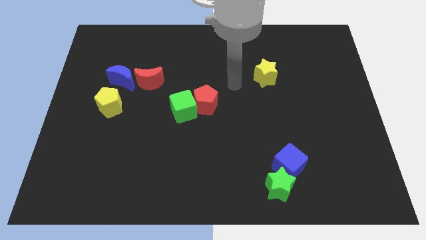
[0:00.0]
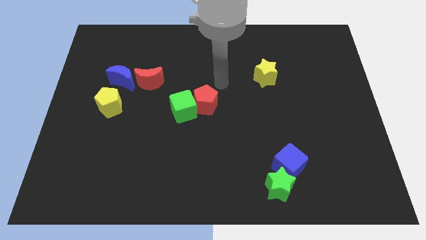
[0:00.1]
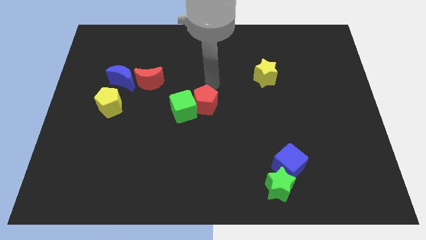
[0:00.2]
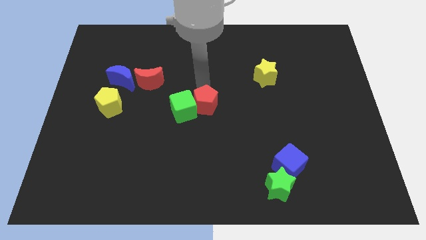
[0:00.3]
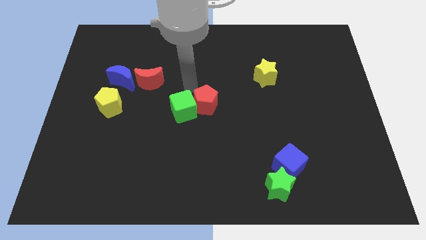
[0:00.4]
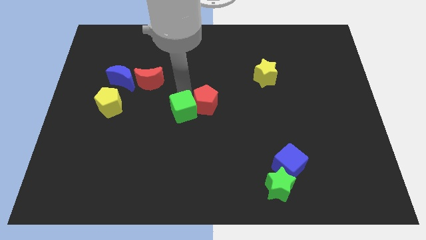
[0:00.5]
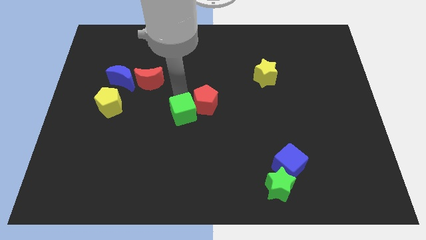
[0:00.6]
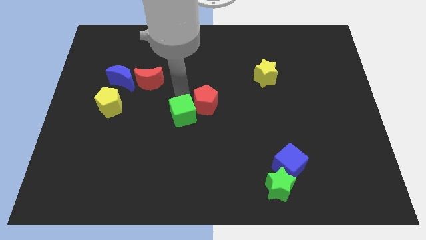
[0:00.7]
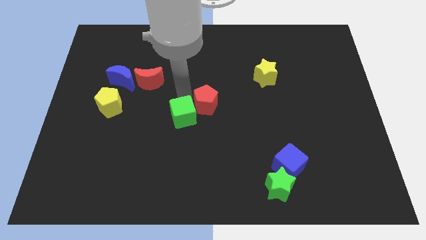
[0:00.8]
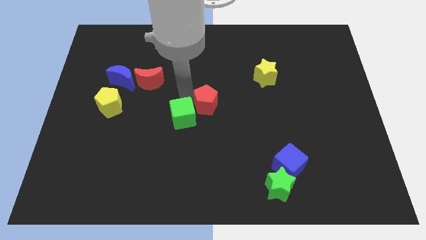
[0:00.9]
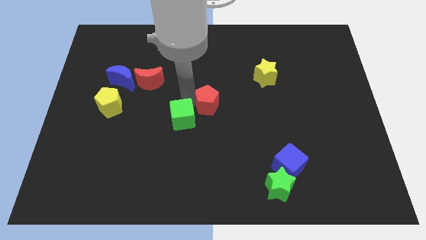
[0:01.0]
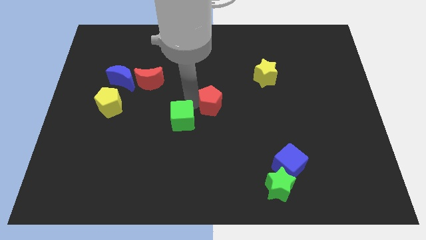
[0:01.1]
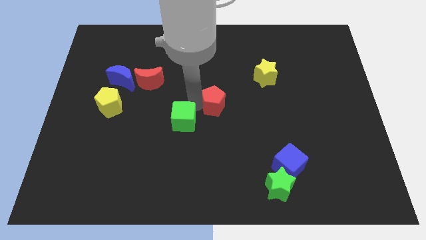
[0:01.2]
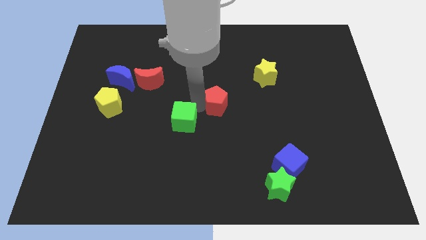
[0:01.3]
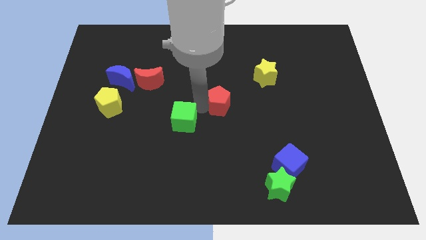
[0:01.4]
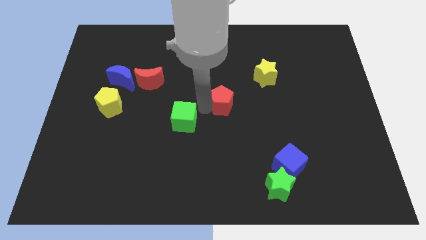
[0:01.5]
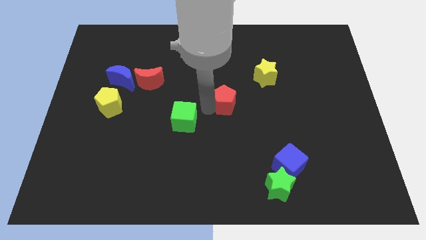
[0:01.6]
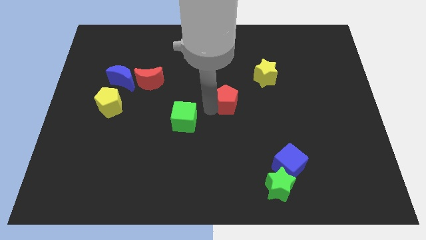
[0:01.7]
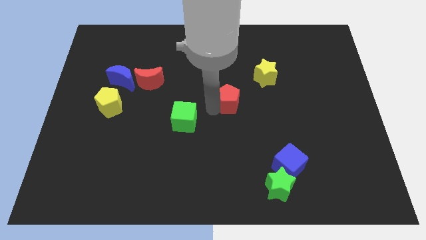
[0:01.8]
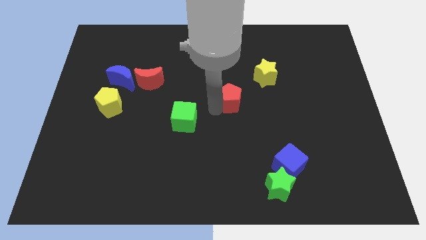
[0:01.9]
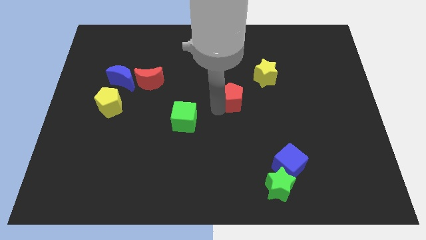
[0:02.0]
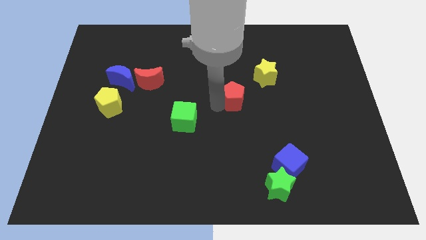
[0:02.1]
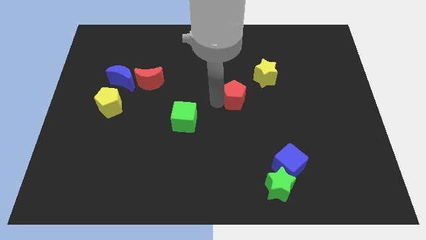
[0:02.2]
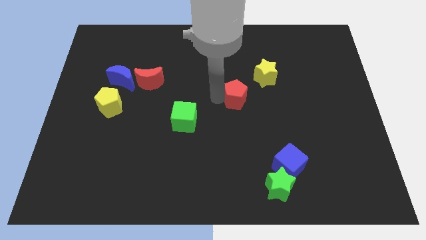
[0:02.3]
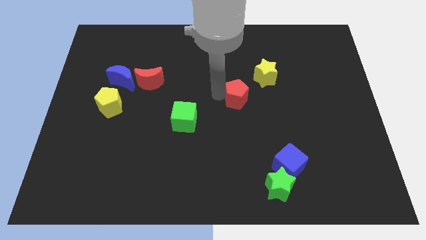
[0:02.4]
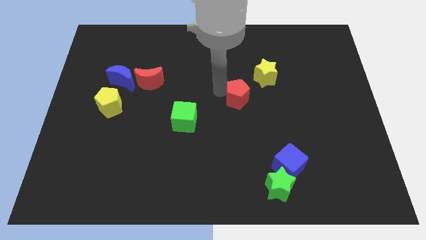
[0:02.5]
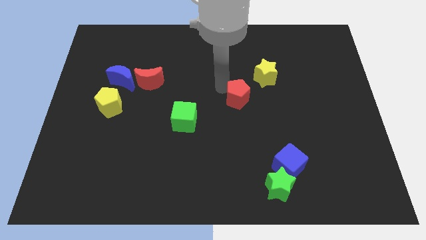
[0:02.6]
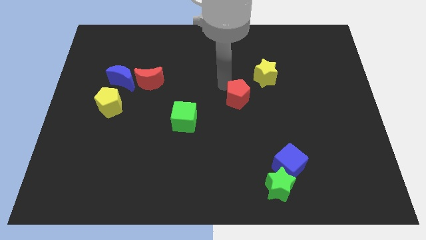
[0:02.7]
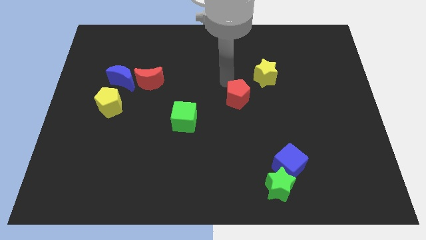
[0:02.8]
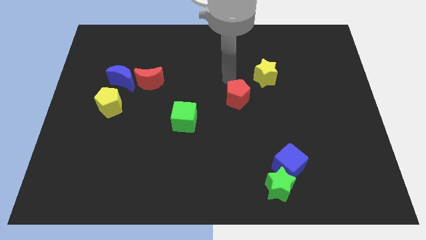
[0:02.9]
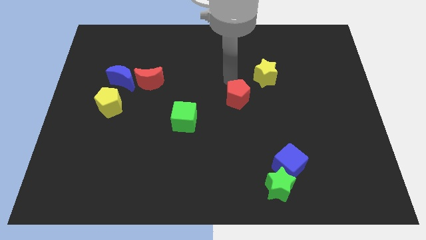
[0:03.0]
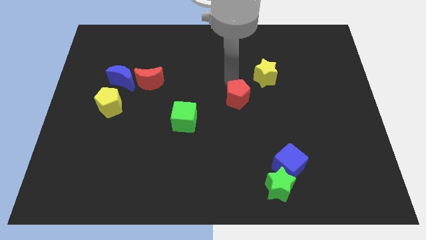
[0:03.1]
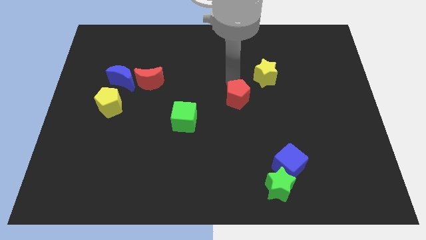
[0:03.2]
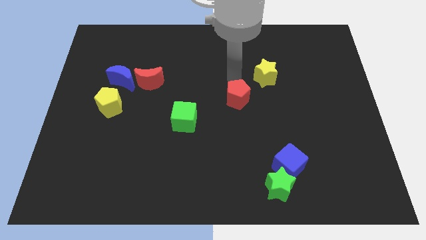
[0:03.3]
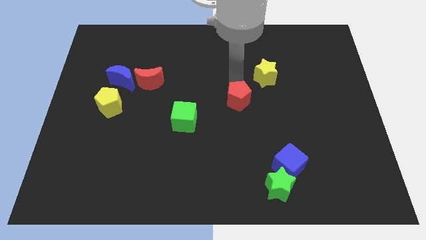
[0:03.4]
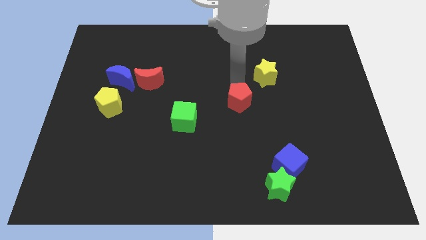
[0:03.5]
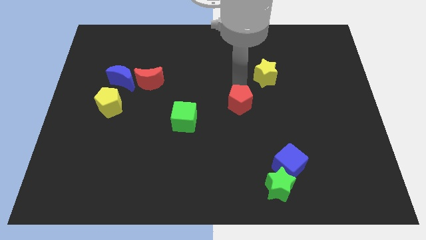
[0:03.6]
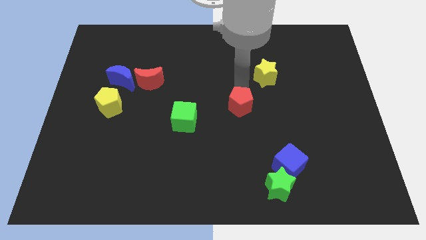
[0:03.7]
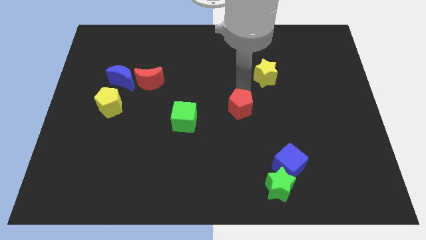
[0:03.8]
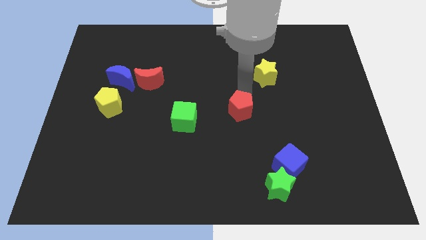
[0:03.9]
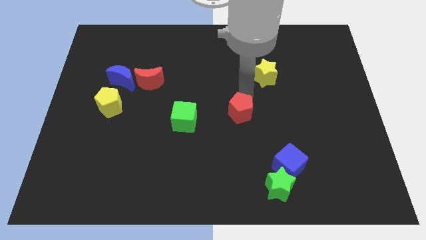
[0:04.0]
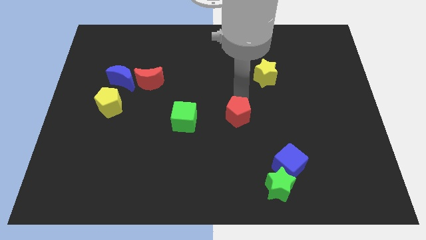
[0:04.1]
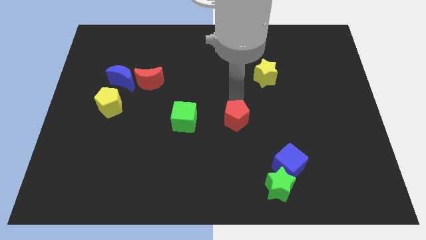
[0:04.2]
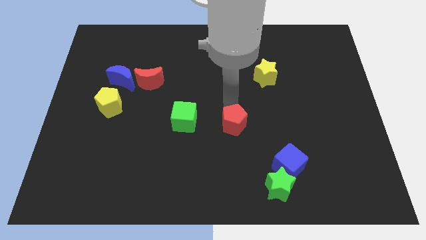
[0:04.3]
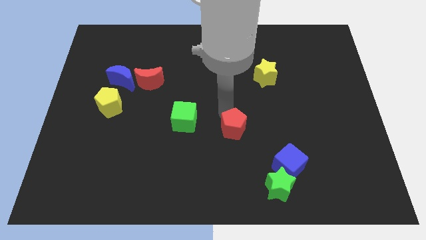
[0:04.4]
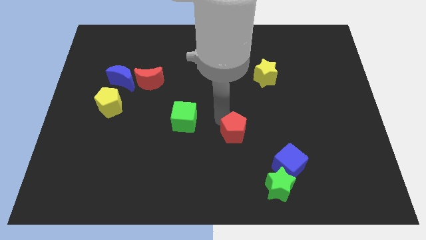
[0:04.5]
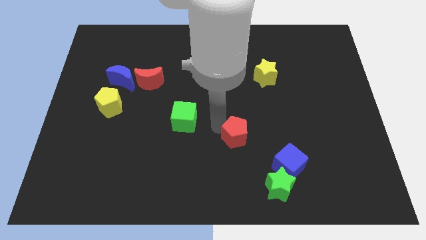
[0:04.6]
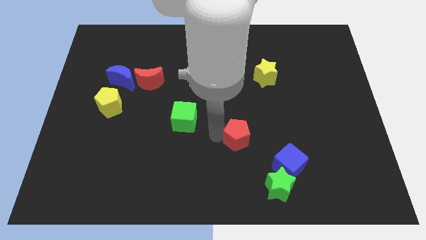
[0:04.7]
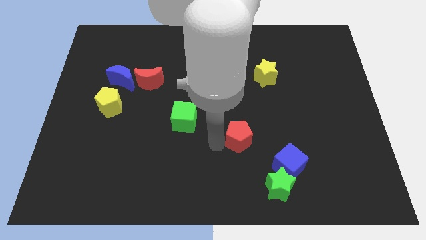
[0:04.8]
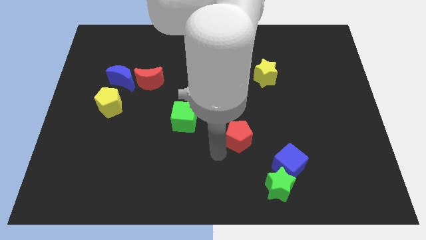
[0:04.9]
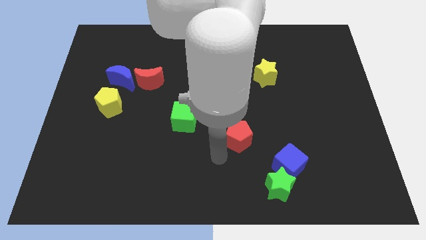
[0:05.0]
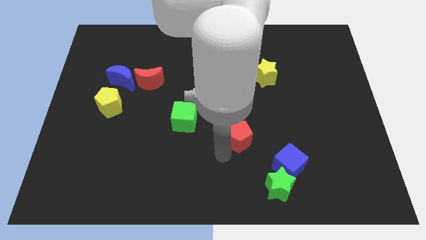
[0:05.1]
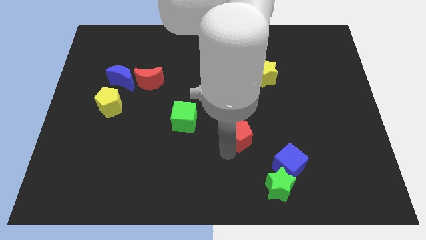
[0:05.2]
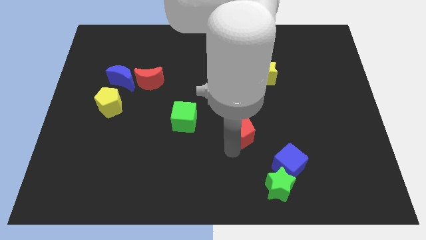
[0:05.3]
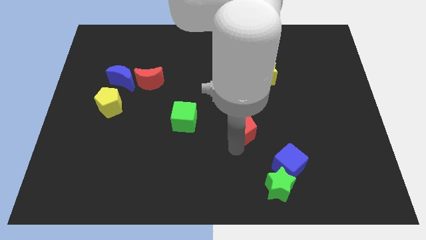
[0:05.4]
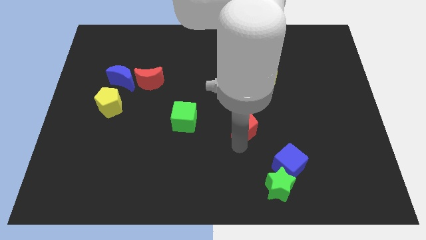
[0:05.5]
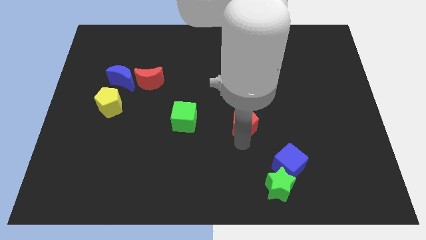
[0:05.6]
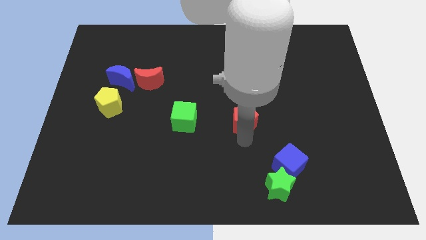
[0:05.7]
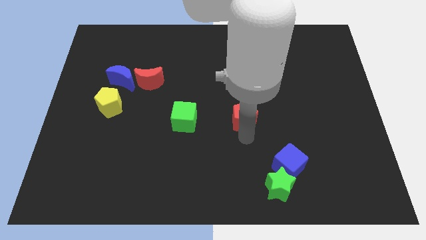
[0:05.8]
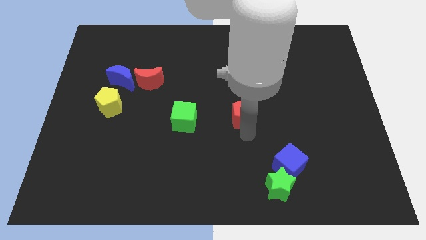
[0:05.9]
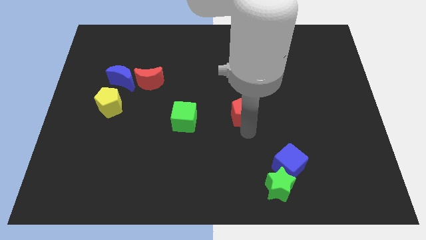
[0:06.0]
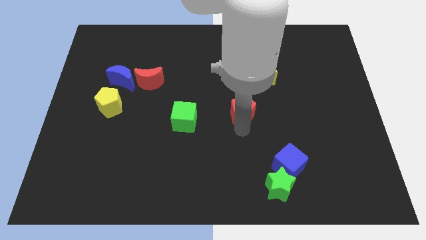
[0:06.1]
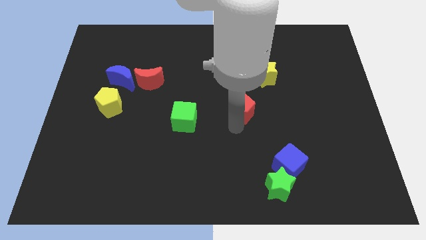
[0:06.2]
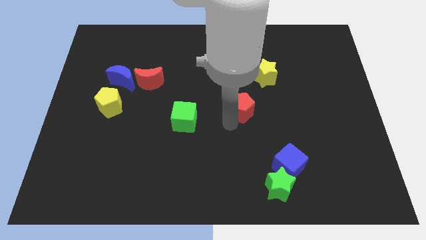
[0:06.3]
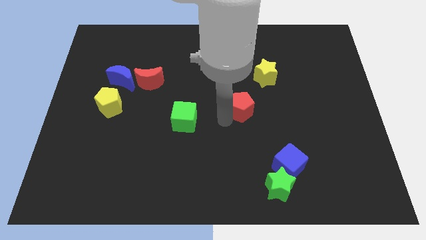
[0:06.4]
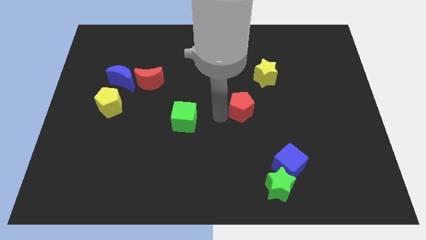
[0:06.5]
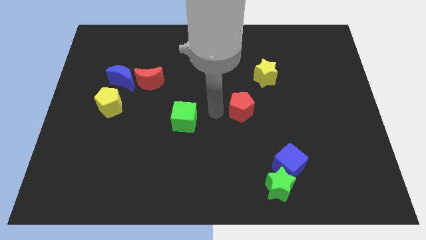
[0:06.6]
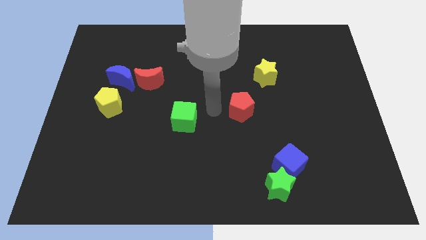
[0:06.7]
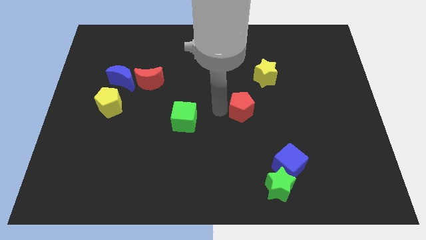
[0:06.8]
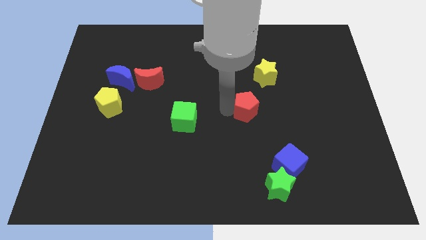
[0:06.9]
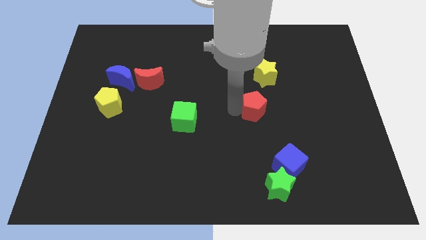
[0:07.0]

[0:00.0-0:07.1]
slide the red pentagon to the bottom of the yellow star
